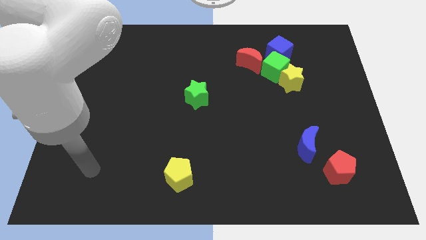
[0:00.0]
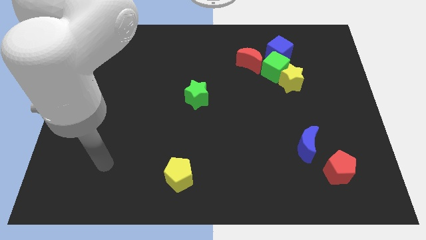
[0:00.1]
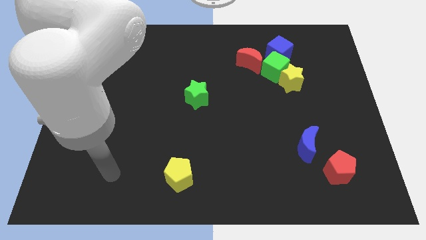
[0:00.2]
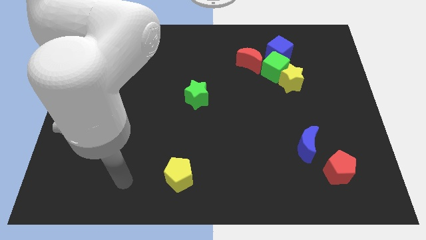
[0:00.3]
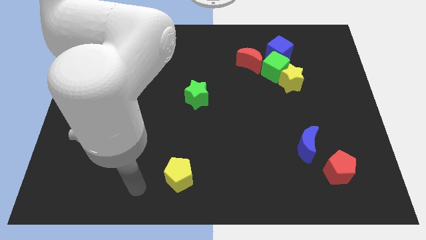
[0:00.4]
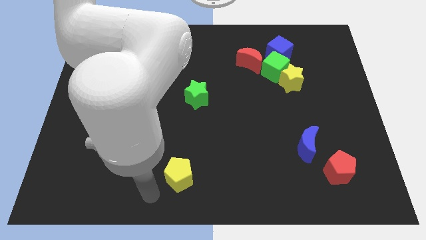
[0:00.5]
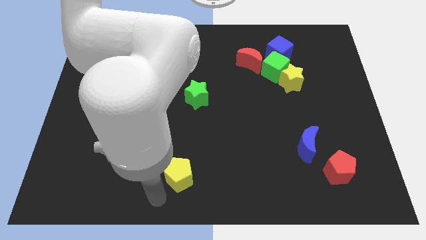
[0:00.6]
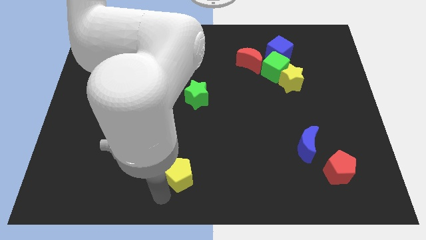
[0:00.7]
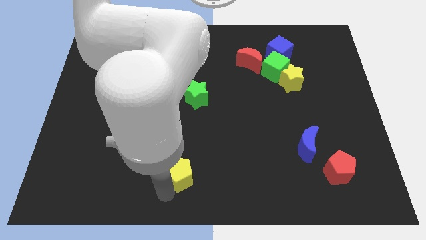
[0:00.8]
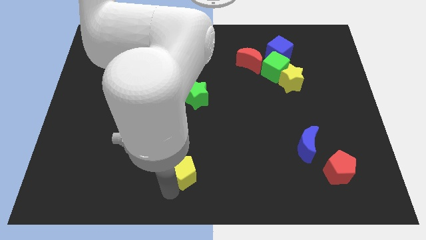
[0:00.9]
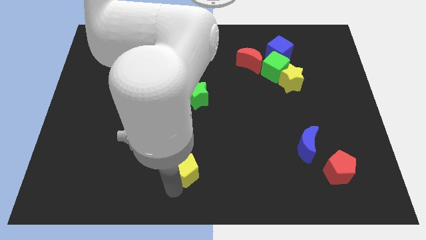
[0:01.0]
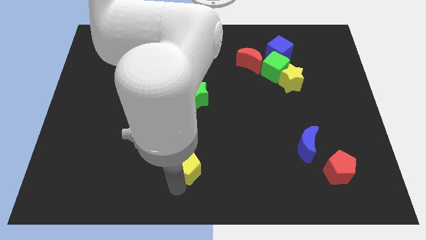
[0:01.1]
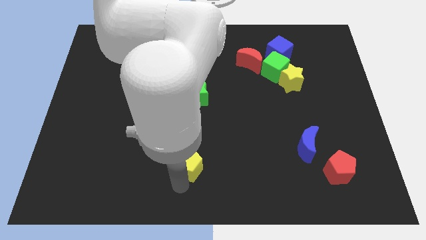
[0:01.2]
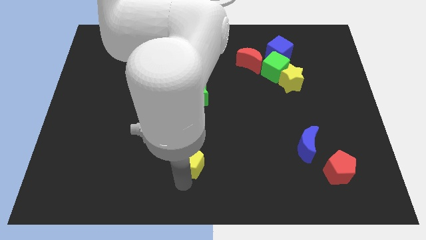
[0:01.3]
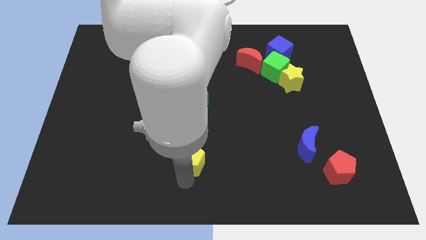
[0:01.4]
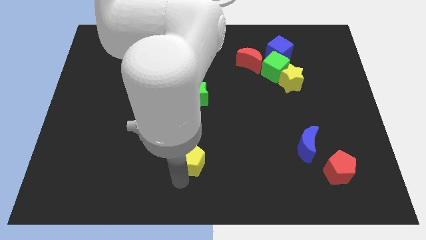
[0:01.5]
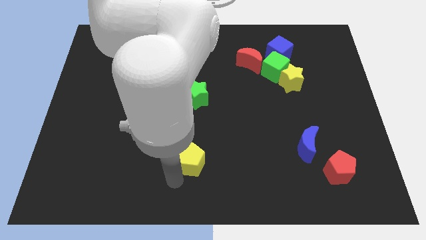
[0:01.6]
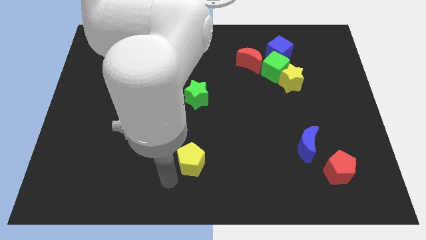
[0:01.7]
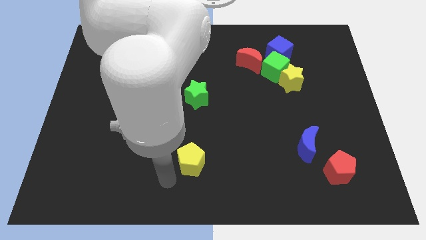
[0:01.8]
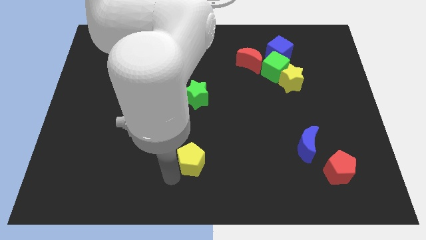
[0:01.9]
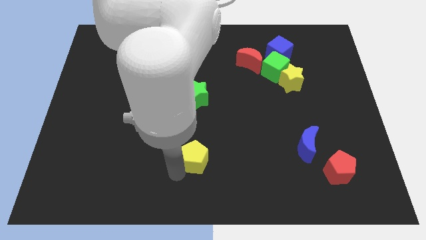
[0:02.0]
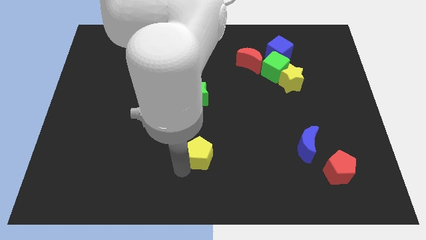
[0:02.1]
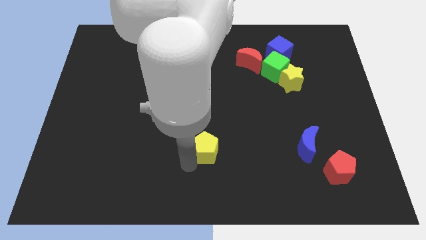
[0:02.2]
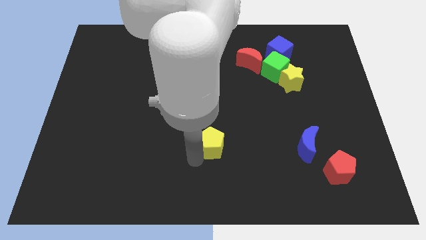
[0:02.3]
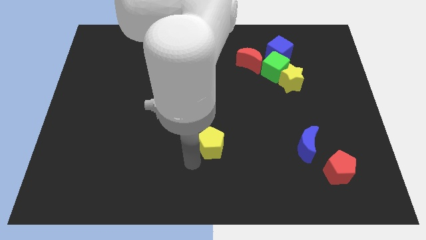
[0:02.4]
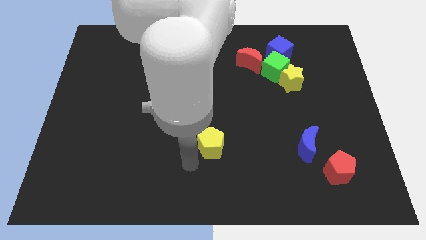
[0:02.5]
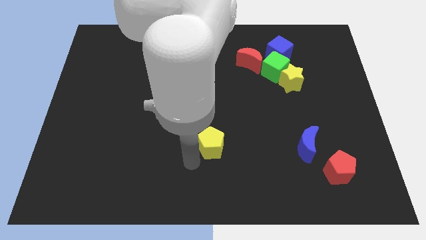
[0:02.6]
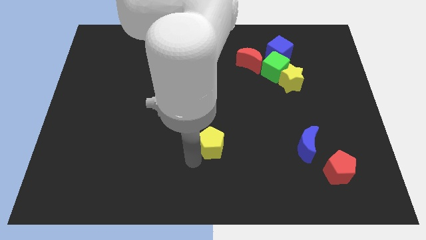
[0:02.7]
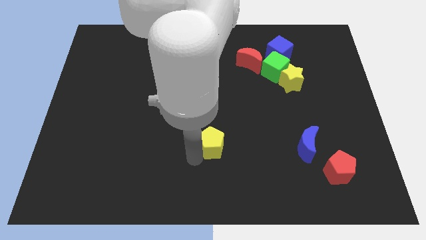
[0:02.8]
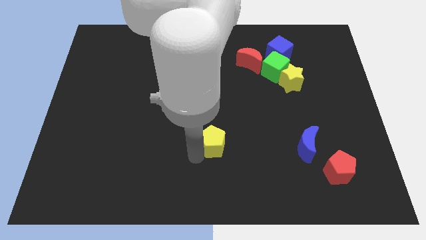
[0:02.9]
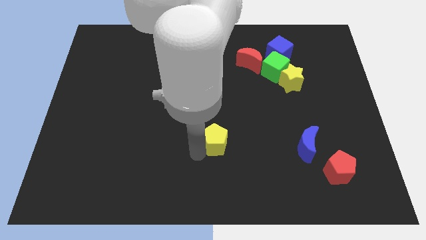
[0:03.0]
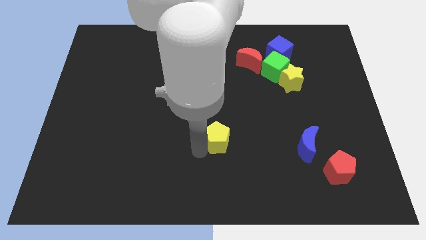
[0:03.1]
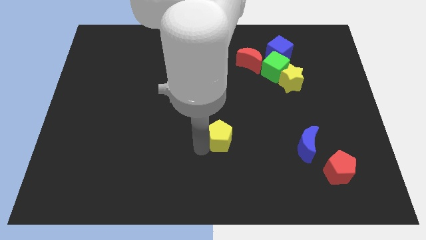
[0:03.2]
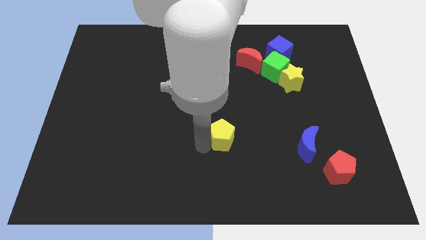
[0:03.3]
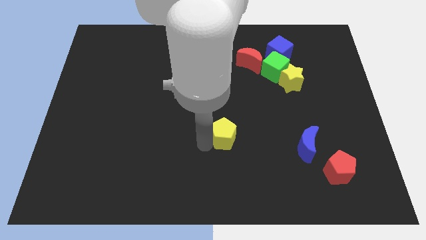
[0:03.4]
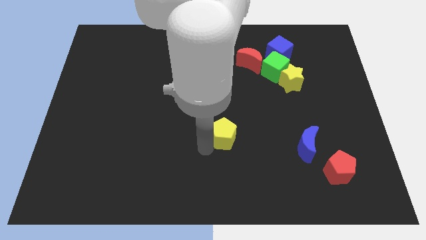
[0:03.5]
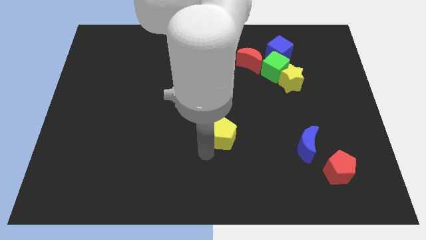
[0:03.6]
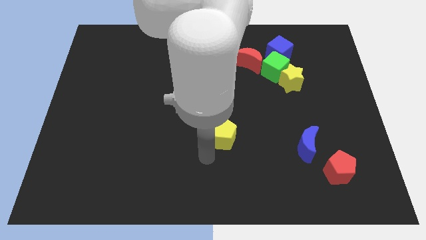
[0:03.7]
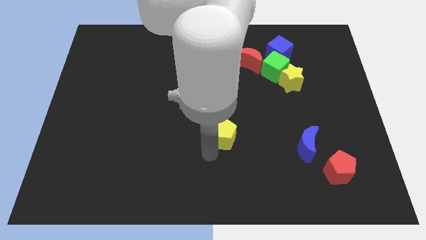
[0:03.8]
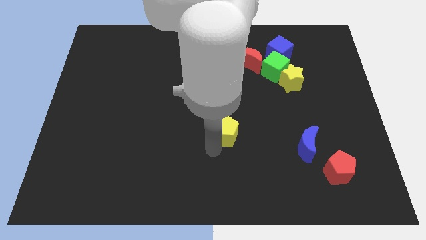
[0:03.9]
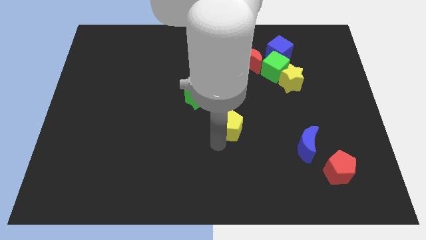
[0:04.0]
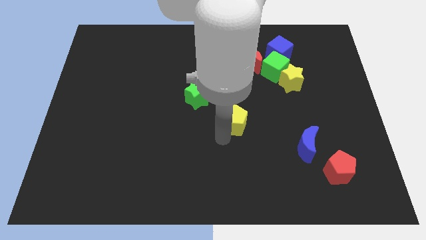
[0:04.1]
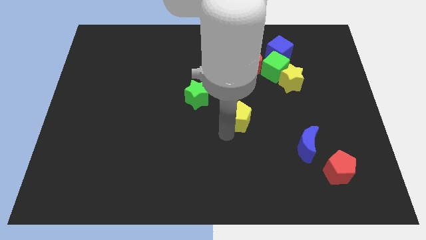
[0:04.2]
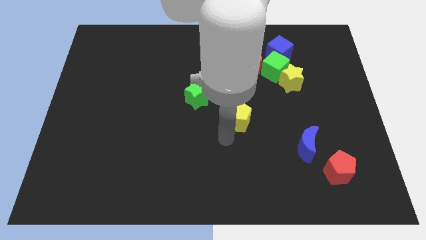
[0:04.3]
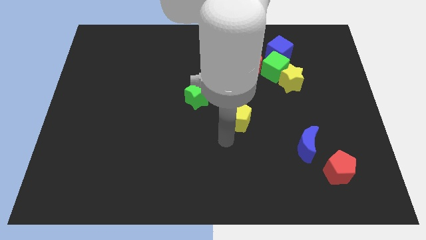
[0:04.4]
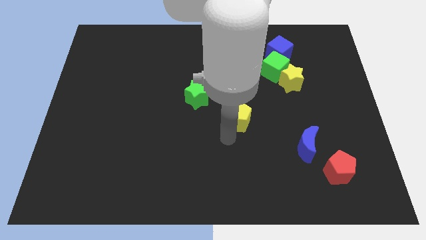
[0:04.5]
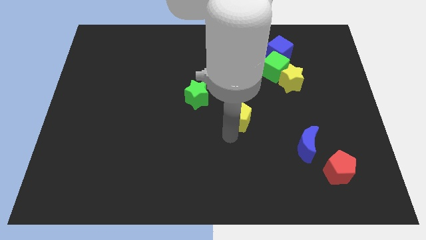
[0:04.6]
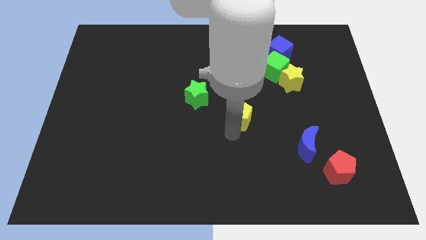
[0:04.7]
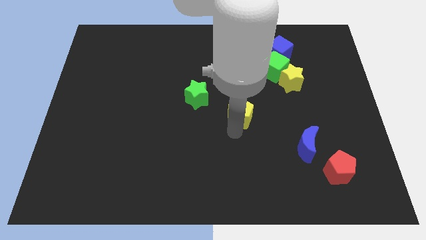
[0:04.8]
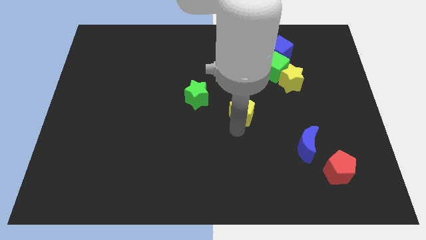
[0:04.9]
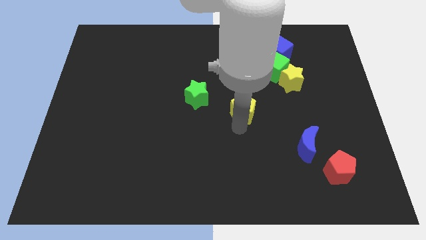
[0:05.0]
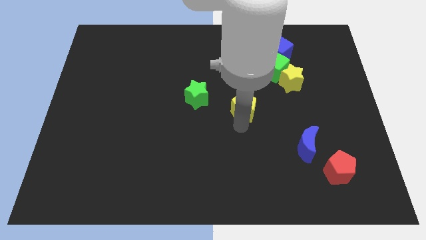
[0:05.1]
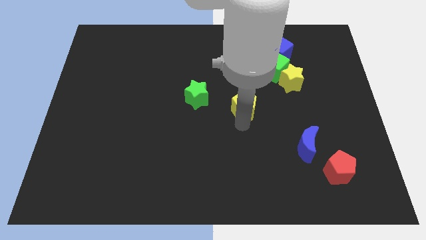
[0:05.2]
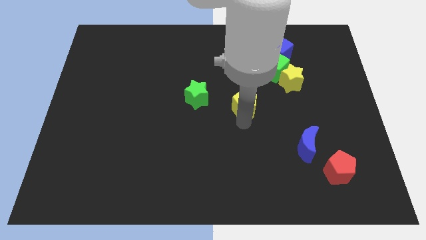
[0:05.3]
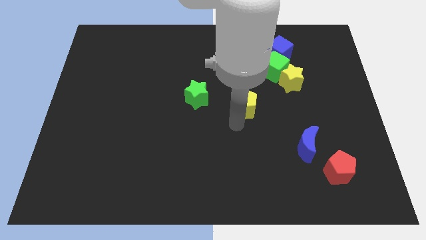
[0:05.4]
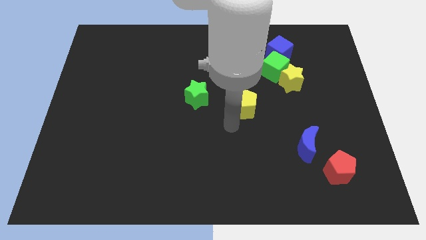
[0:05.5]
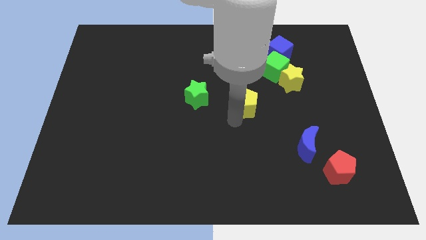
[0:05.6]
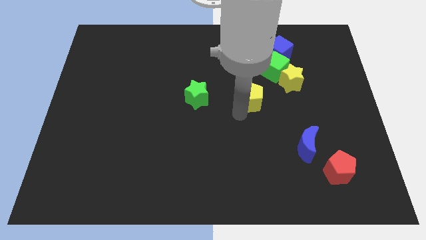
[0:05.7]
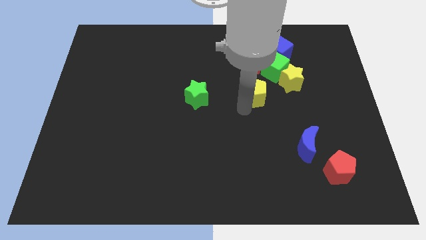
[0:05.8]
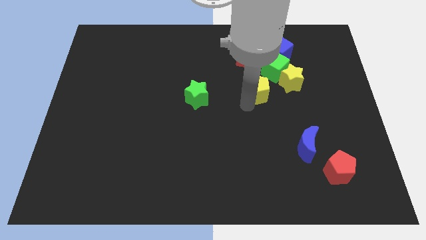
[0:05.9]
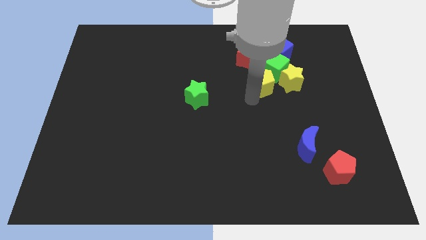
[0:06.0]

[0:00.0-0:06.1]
push the yellow pentagon towards the green cube
